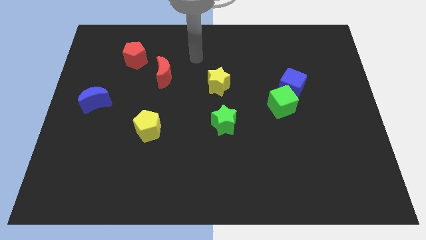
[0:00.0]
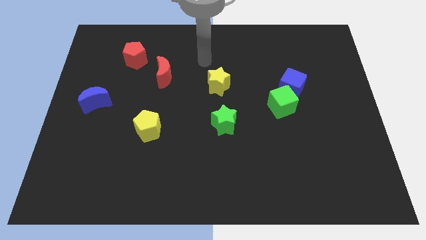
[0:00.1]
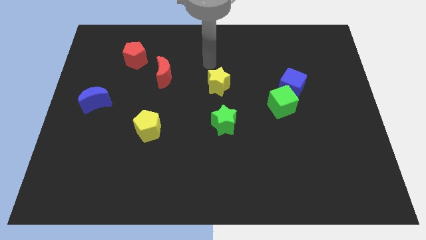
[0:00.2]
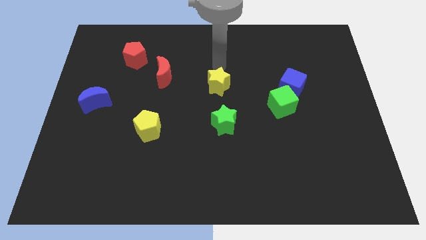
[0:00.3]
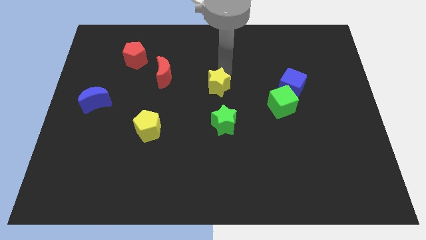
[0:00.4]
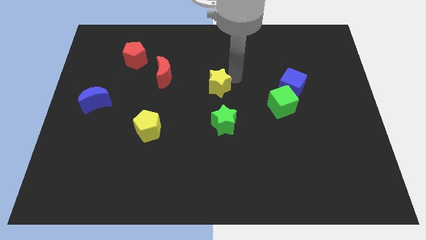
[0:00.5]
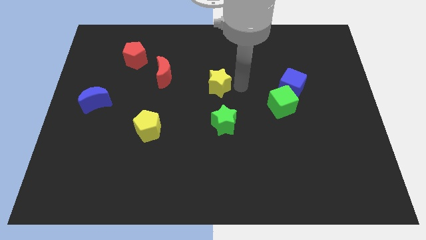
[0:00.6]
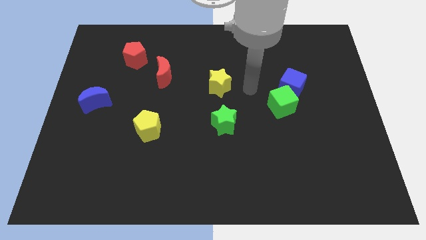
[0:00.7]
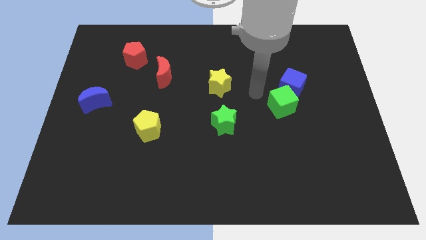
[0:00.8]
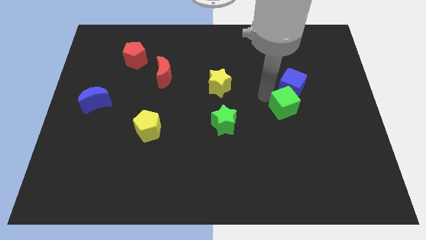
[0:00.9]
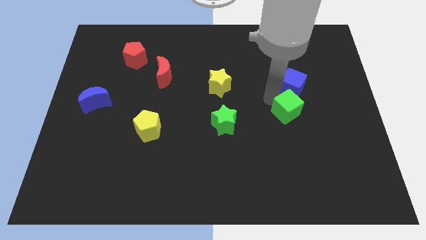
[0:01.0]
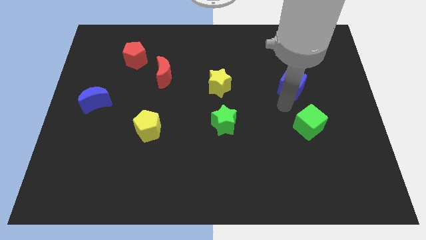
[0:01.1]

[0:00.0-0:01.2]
pull the blue cube apart from the green cube

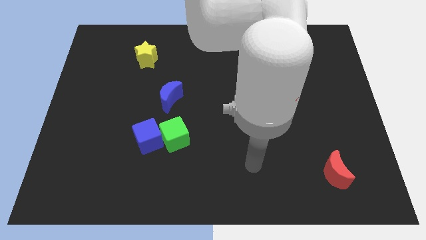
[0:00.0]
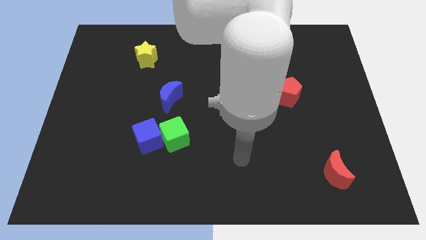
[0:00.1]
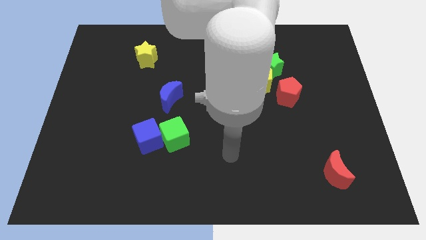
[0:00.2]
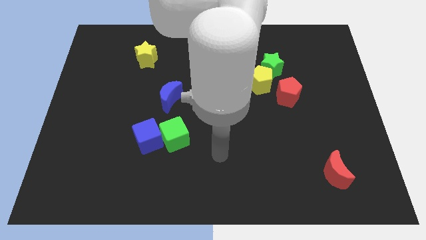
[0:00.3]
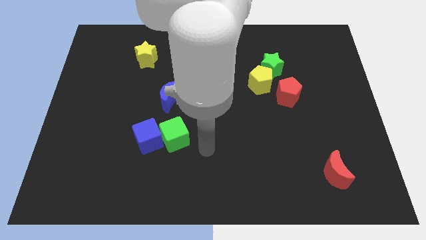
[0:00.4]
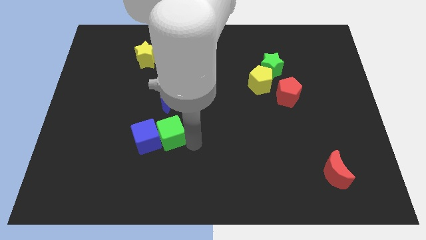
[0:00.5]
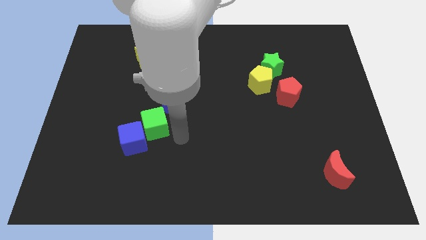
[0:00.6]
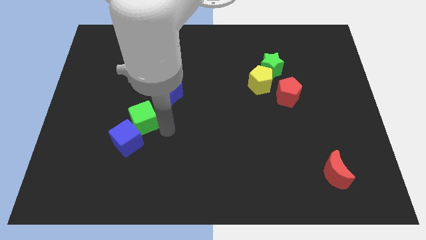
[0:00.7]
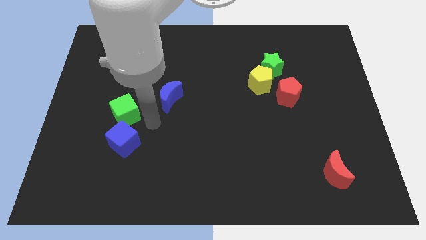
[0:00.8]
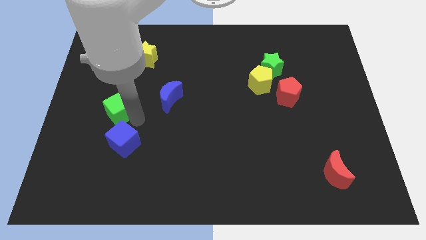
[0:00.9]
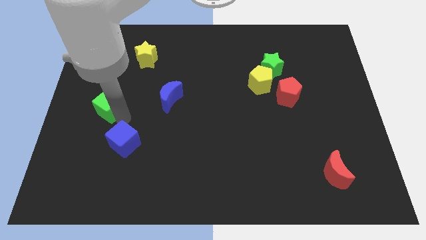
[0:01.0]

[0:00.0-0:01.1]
separate the blue cube from the green cube

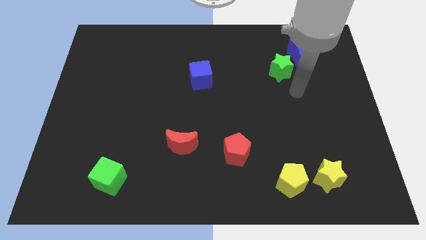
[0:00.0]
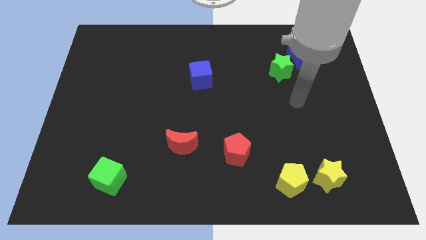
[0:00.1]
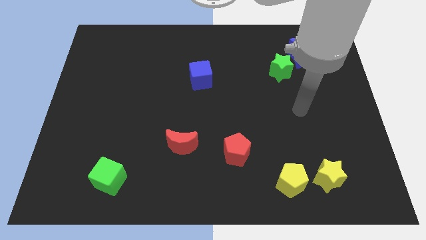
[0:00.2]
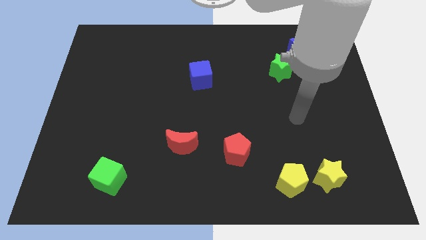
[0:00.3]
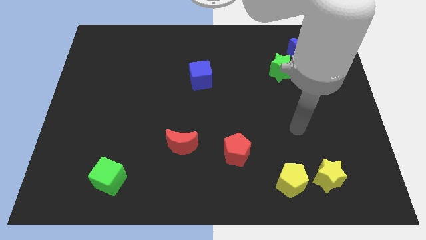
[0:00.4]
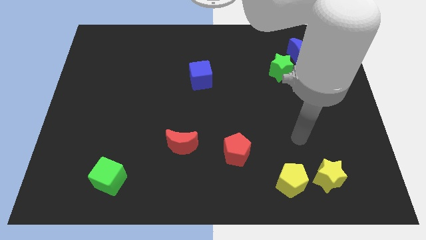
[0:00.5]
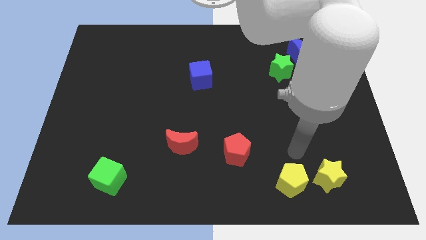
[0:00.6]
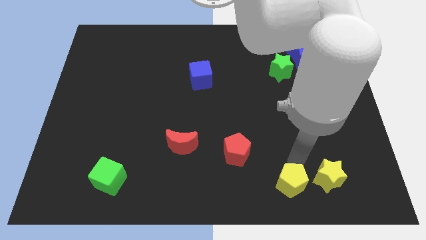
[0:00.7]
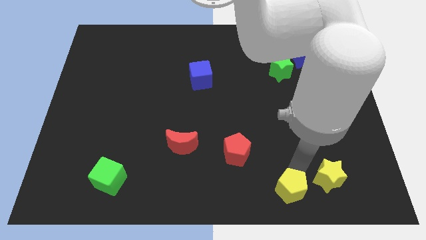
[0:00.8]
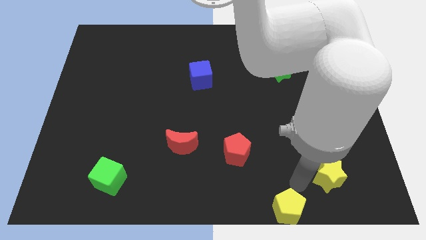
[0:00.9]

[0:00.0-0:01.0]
move the yellow star away from the yellow pentagon

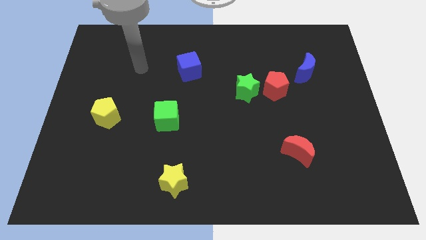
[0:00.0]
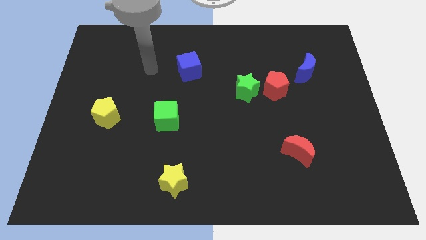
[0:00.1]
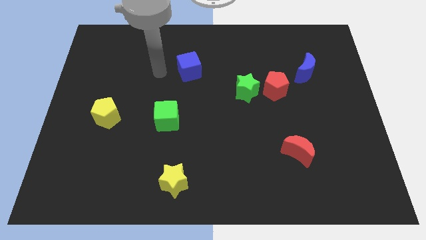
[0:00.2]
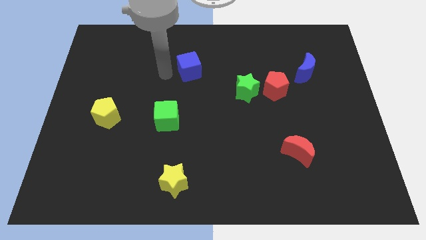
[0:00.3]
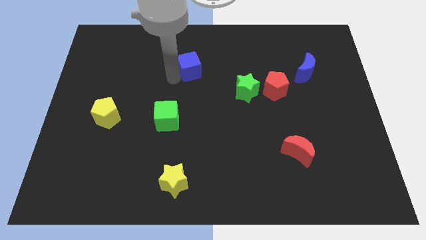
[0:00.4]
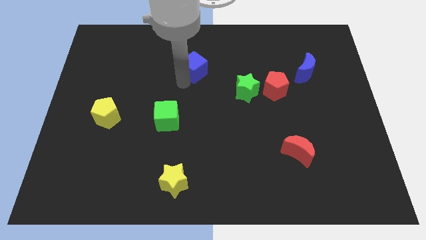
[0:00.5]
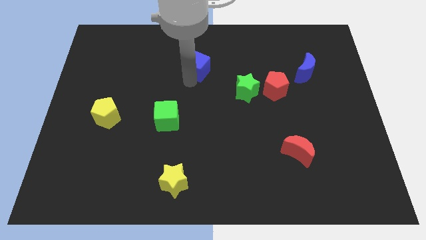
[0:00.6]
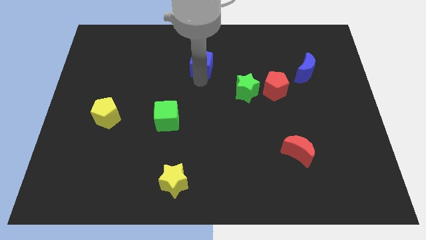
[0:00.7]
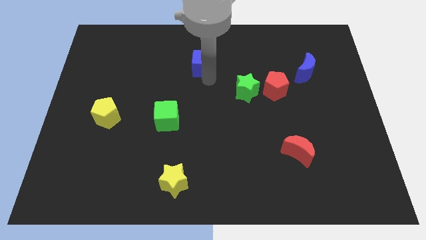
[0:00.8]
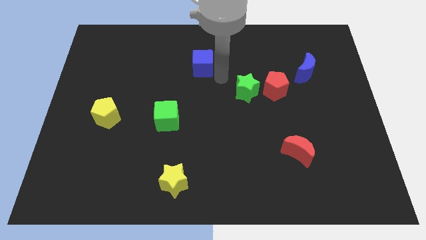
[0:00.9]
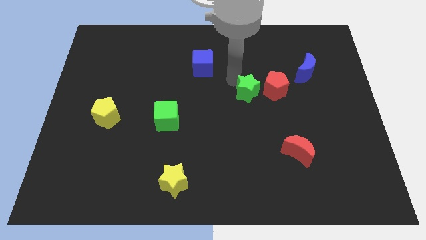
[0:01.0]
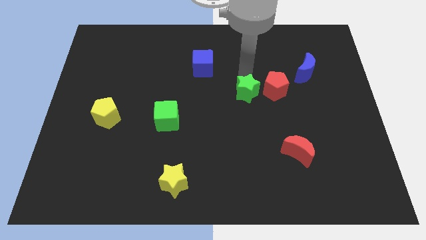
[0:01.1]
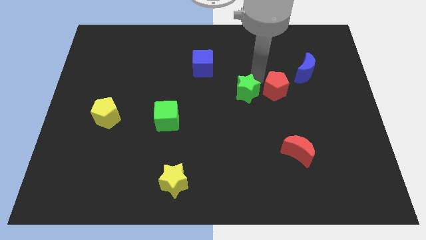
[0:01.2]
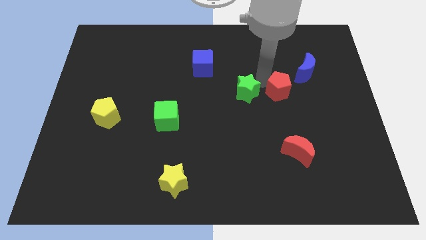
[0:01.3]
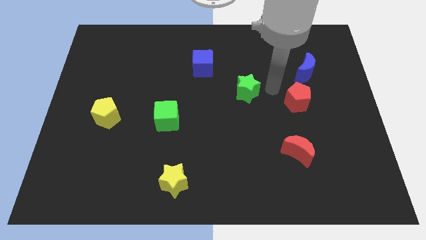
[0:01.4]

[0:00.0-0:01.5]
move the green star away from the red pentagon

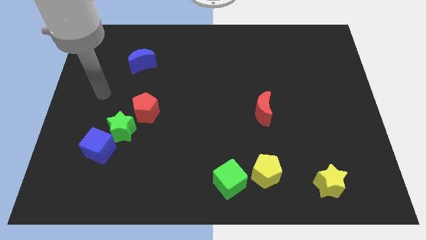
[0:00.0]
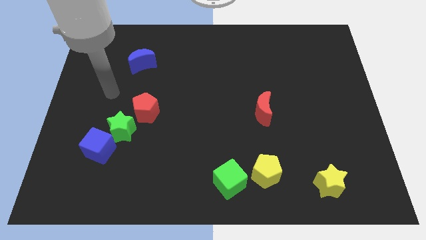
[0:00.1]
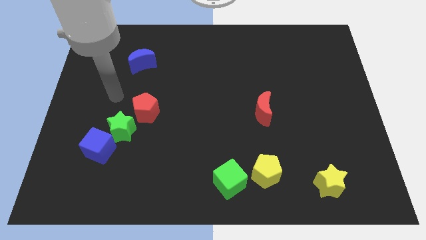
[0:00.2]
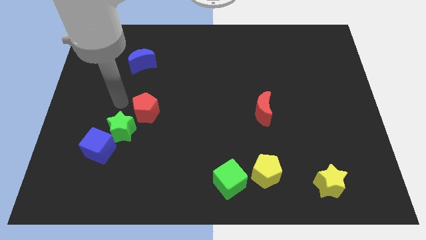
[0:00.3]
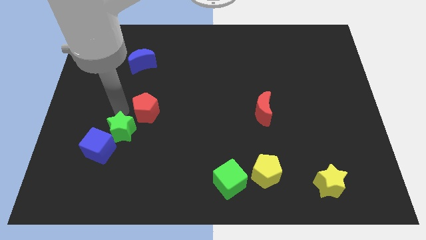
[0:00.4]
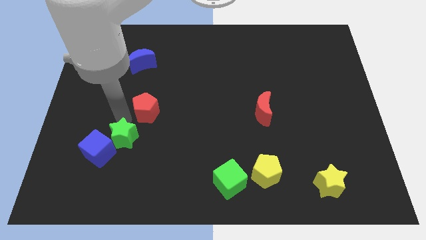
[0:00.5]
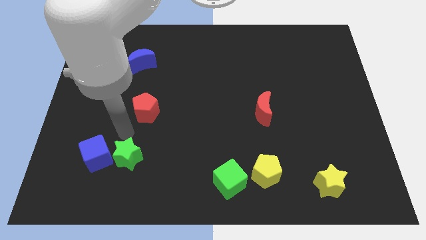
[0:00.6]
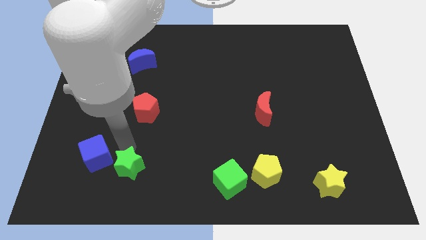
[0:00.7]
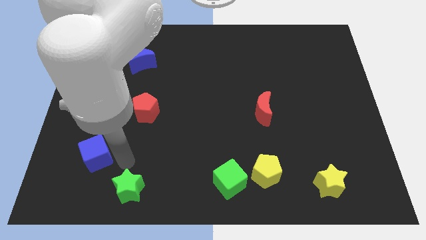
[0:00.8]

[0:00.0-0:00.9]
separate the blue cube from the green star

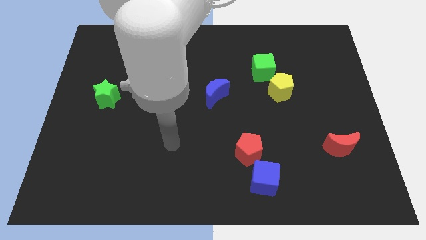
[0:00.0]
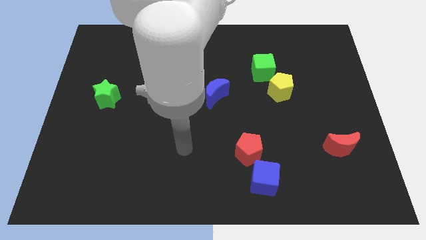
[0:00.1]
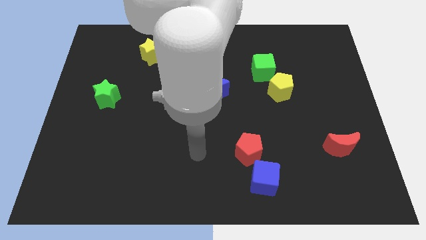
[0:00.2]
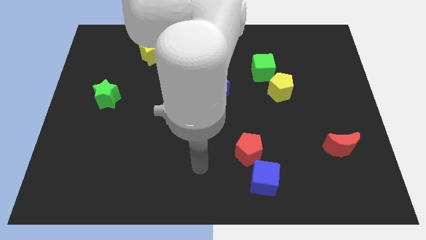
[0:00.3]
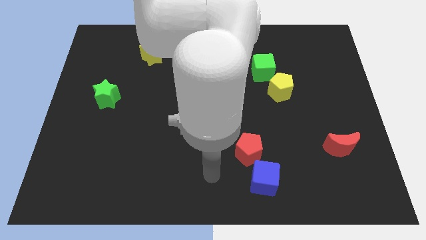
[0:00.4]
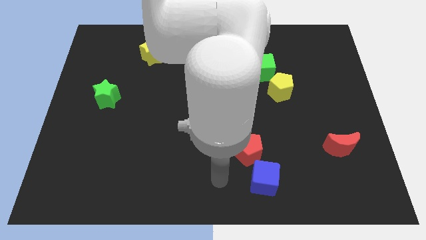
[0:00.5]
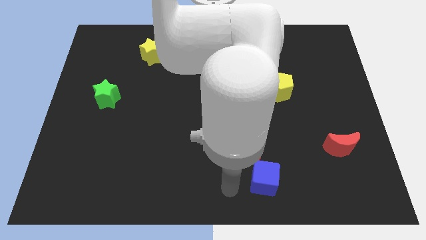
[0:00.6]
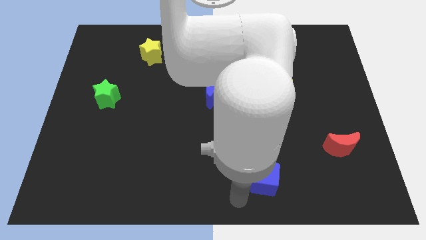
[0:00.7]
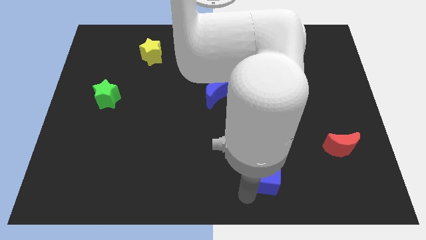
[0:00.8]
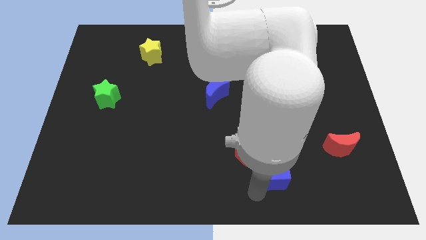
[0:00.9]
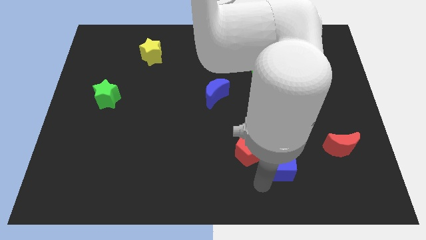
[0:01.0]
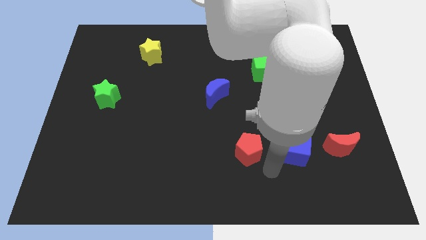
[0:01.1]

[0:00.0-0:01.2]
separate the red pentagon from the blue cube

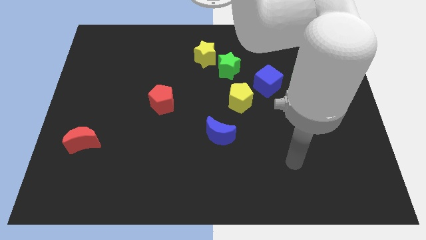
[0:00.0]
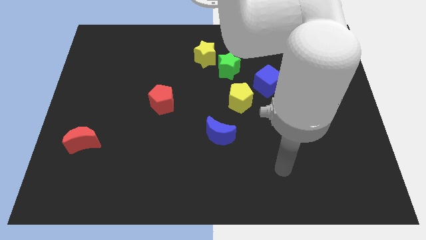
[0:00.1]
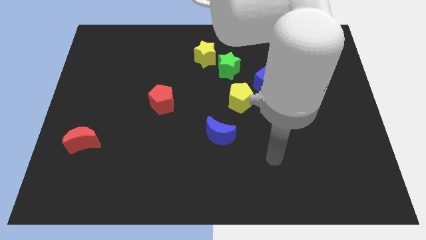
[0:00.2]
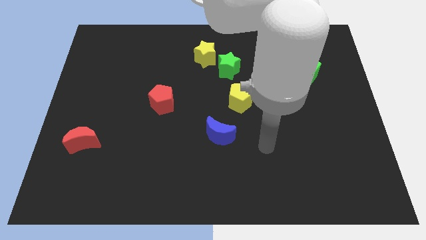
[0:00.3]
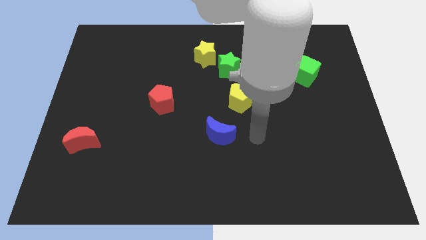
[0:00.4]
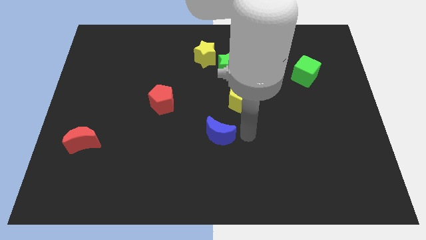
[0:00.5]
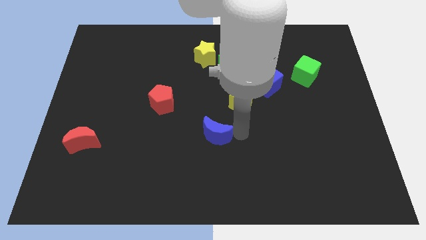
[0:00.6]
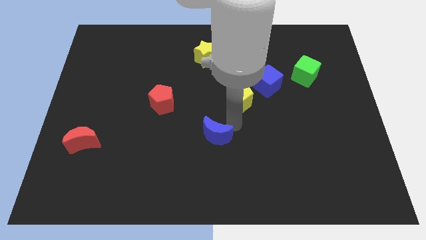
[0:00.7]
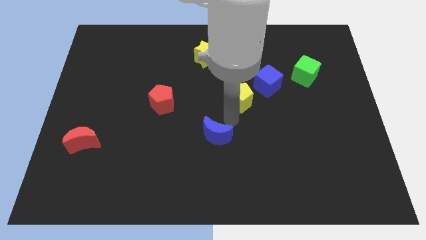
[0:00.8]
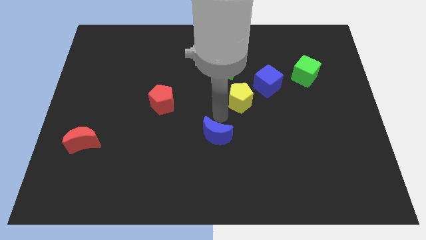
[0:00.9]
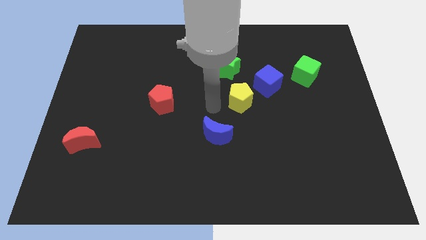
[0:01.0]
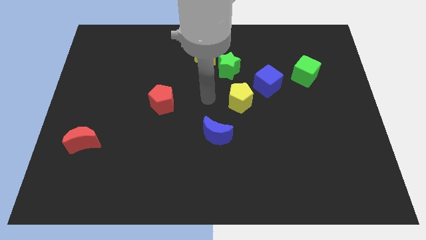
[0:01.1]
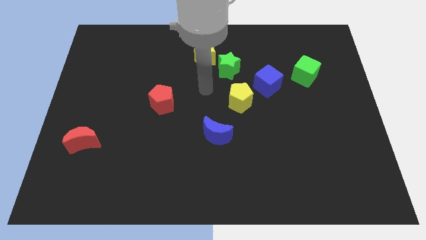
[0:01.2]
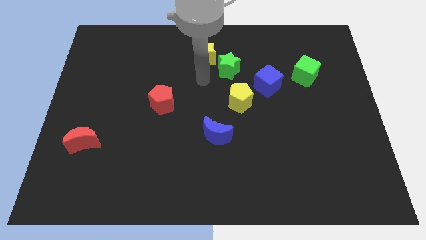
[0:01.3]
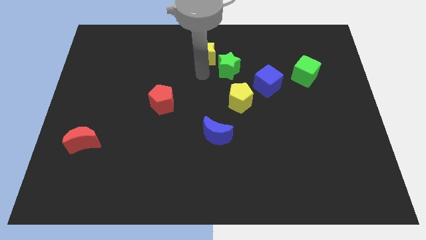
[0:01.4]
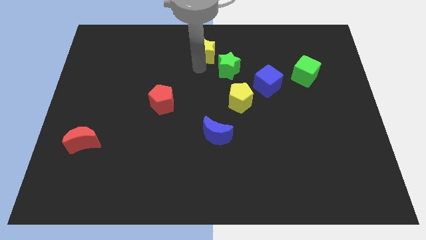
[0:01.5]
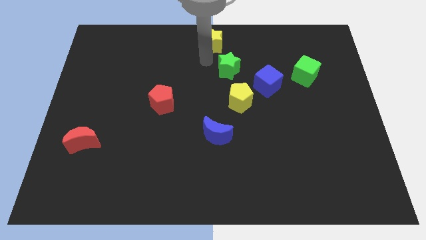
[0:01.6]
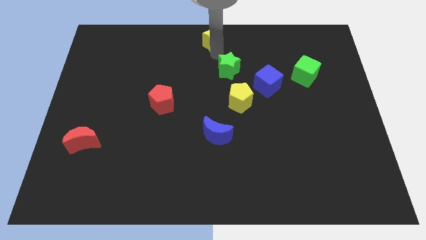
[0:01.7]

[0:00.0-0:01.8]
separate the green star from the yellow star

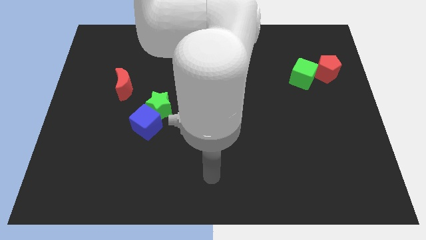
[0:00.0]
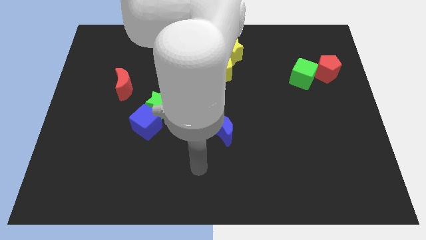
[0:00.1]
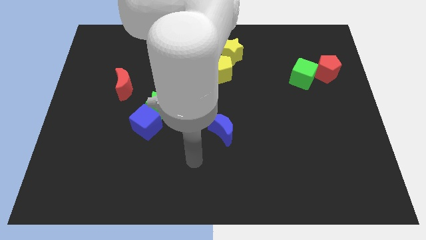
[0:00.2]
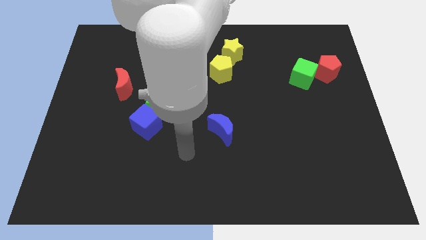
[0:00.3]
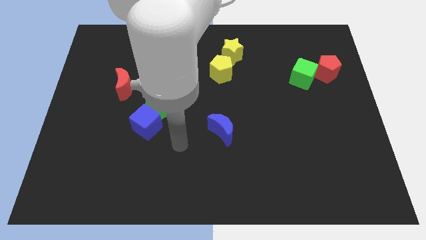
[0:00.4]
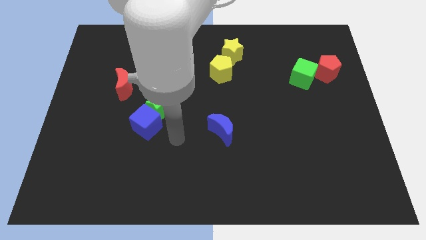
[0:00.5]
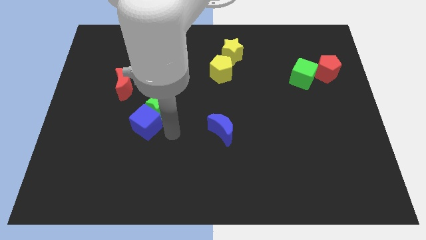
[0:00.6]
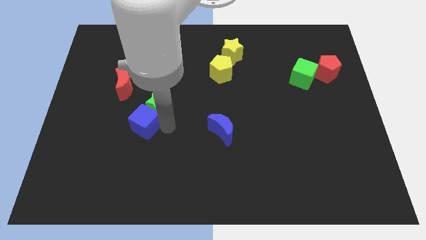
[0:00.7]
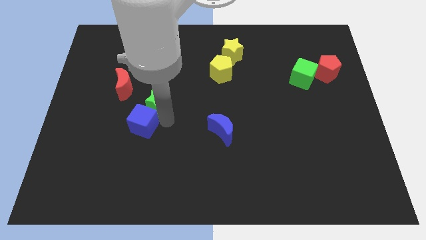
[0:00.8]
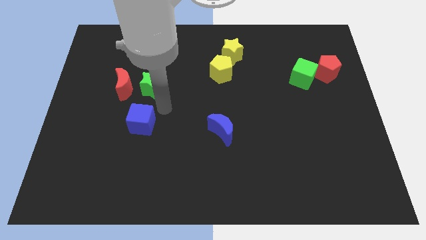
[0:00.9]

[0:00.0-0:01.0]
move the blue cube away from the green star
